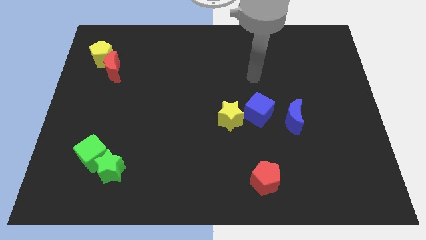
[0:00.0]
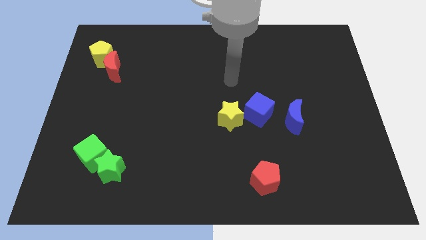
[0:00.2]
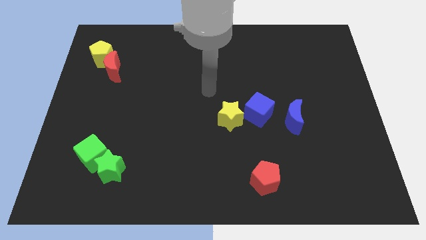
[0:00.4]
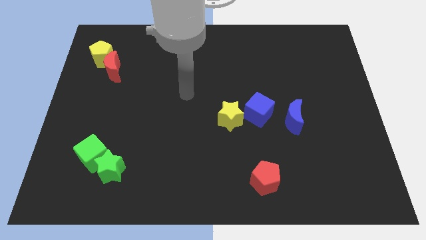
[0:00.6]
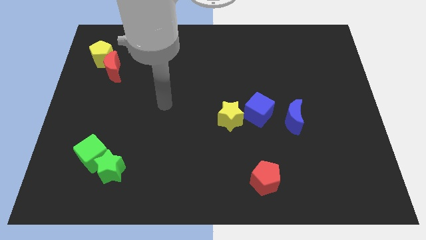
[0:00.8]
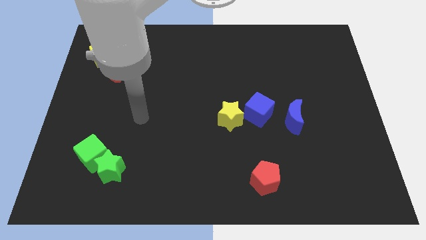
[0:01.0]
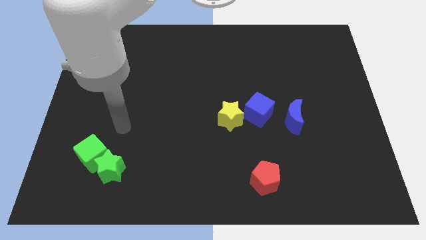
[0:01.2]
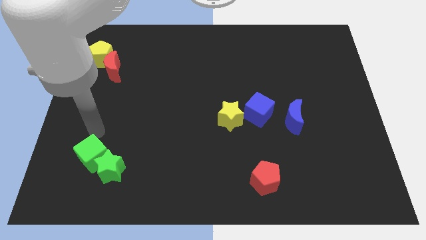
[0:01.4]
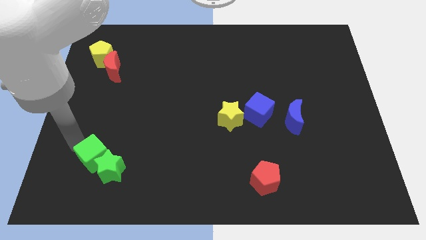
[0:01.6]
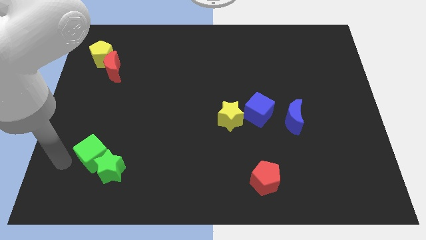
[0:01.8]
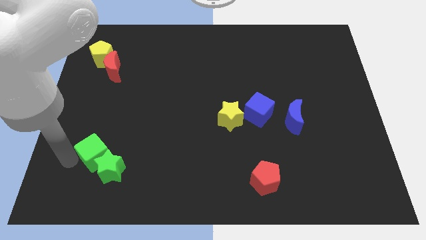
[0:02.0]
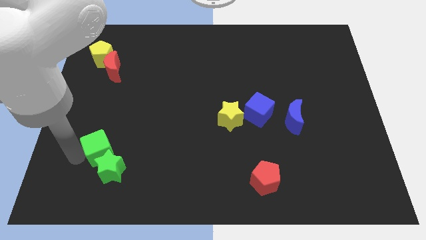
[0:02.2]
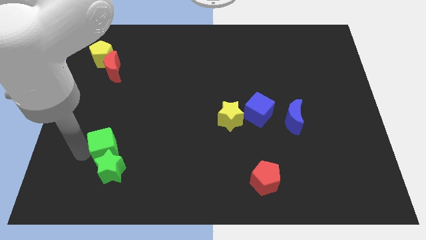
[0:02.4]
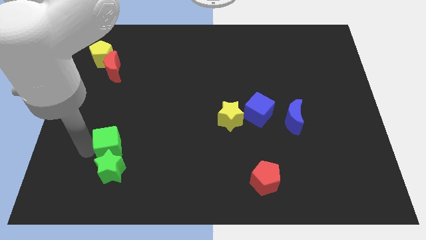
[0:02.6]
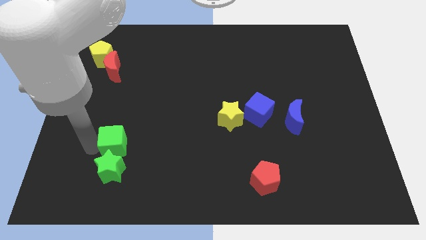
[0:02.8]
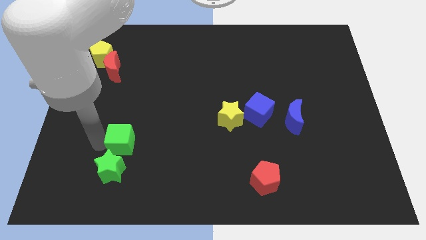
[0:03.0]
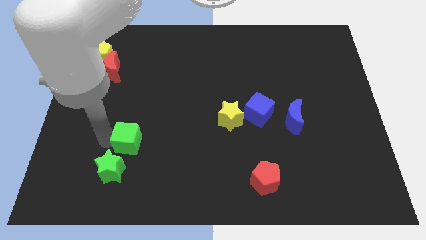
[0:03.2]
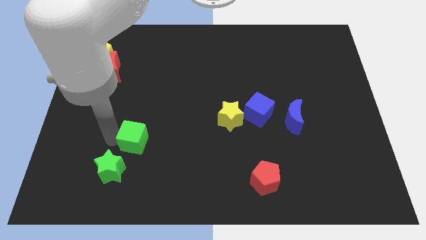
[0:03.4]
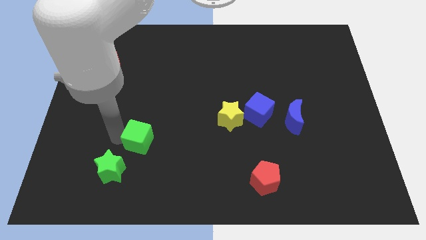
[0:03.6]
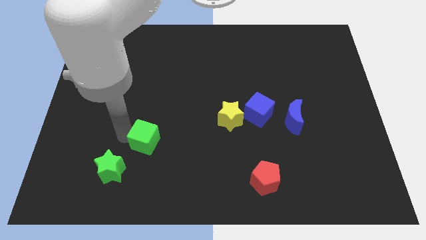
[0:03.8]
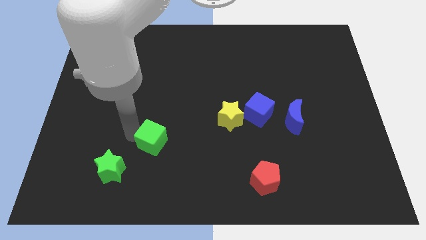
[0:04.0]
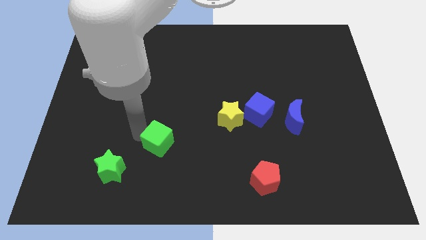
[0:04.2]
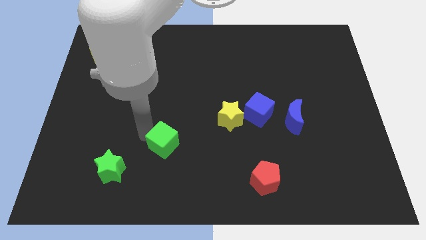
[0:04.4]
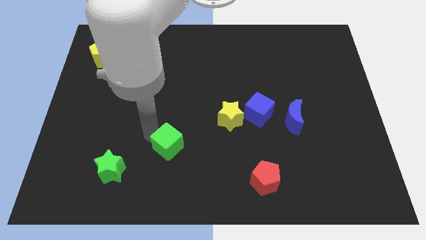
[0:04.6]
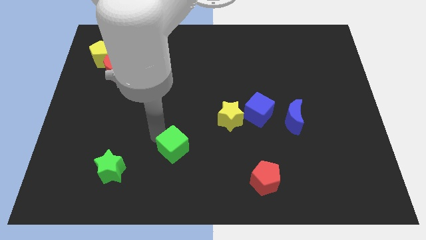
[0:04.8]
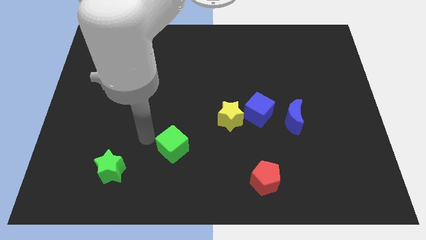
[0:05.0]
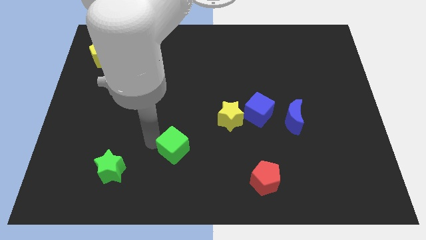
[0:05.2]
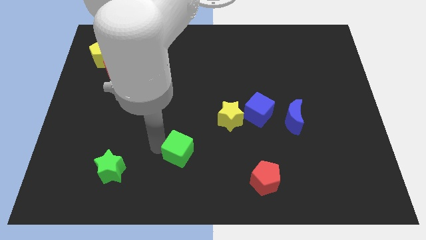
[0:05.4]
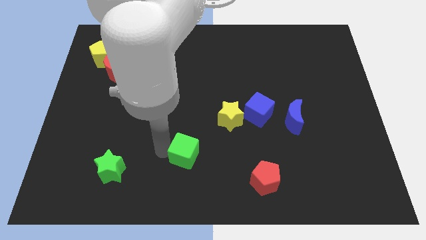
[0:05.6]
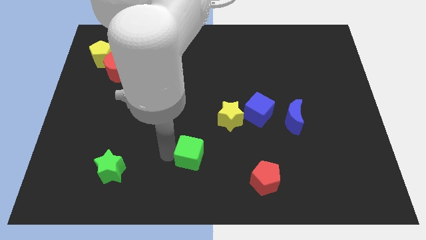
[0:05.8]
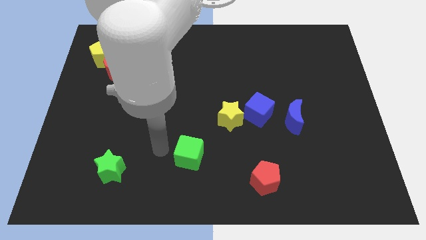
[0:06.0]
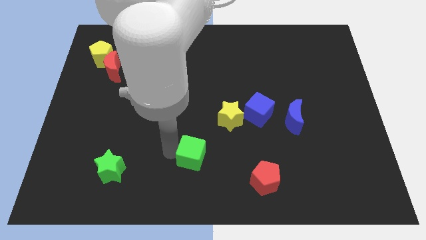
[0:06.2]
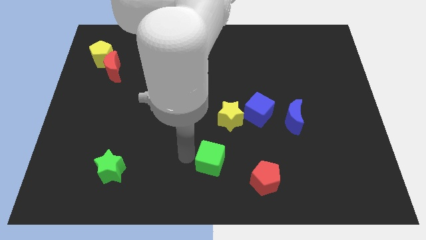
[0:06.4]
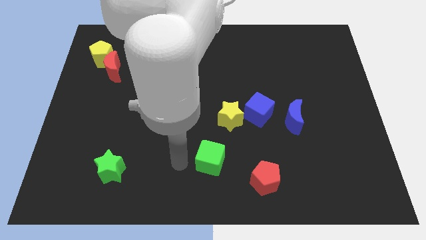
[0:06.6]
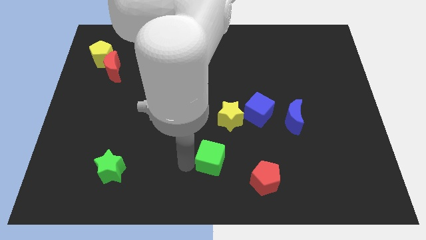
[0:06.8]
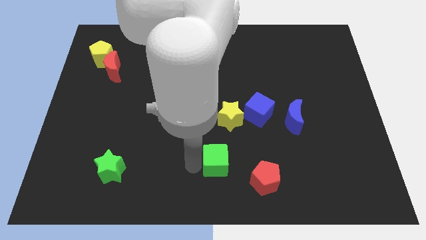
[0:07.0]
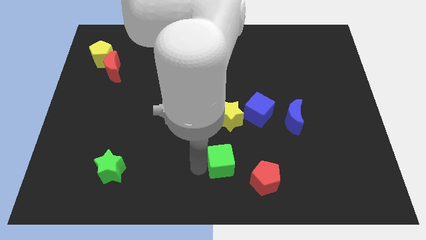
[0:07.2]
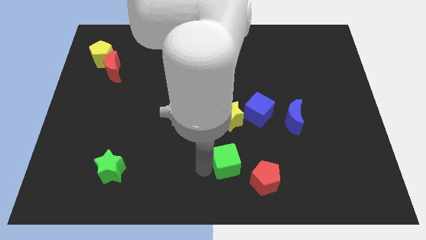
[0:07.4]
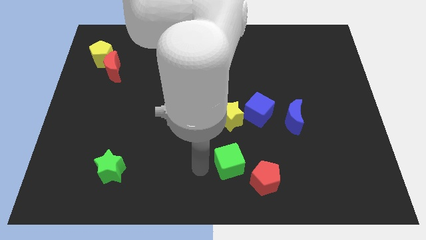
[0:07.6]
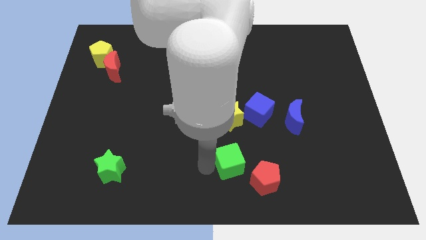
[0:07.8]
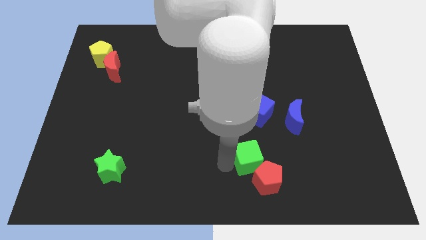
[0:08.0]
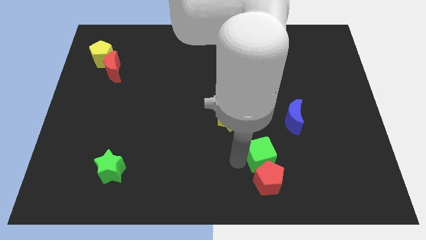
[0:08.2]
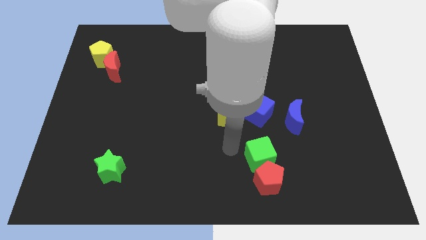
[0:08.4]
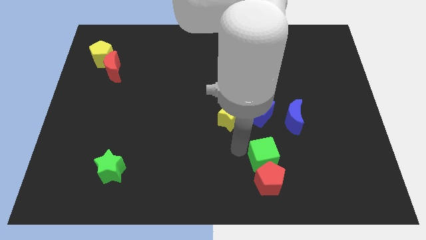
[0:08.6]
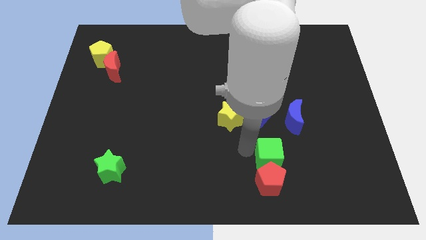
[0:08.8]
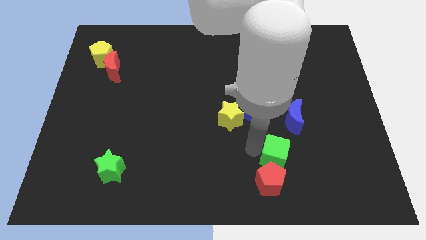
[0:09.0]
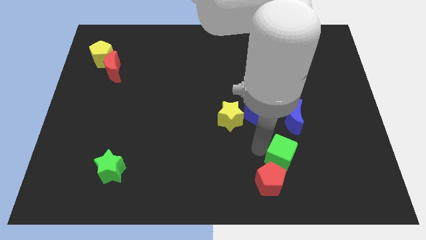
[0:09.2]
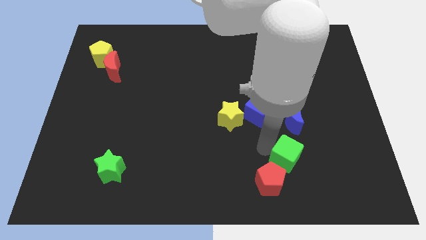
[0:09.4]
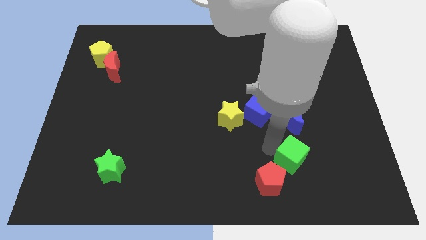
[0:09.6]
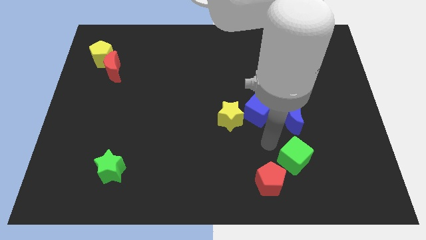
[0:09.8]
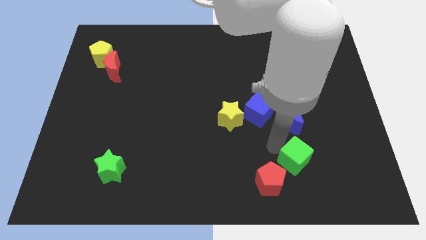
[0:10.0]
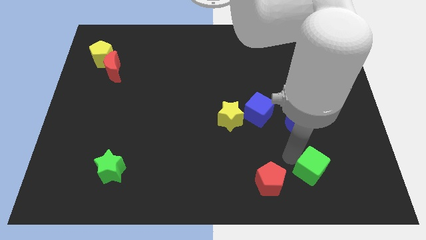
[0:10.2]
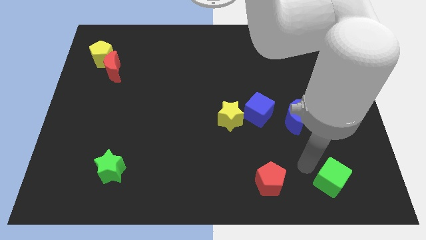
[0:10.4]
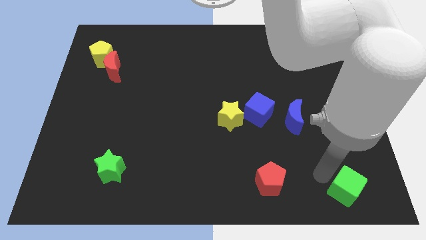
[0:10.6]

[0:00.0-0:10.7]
put the green cube to the bottom right of the board

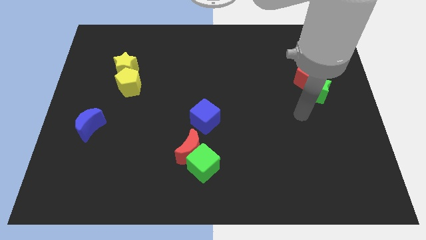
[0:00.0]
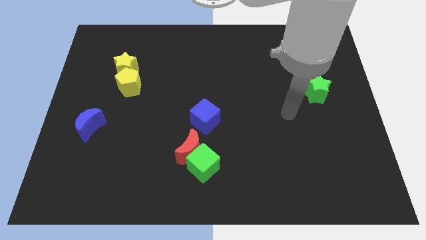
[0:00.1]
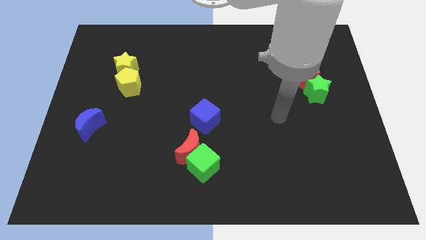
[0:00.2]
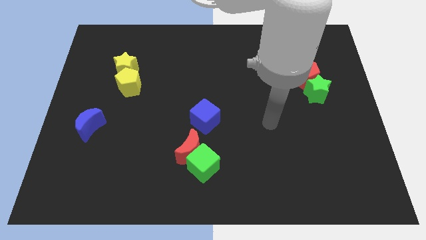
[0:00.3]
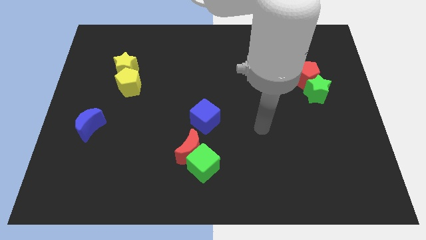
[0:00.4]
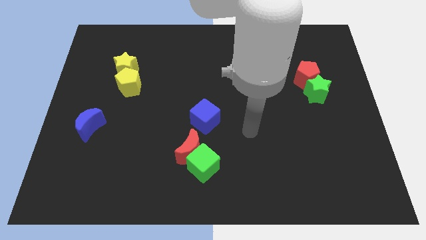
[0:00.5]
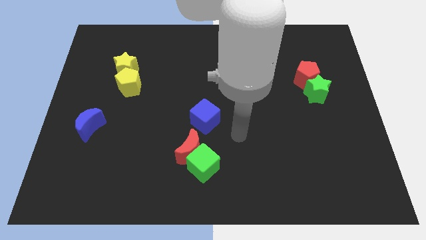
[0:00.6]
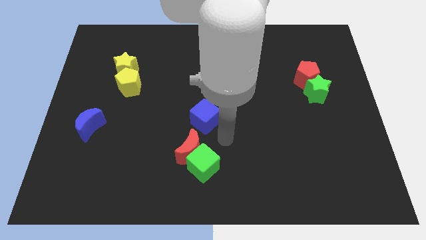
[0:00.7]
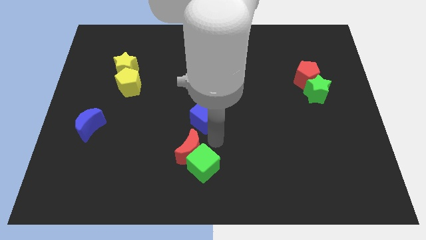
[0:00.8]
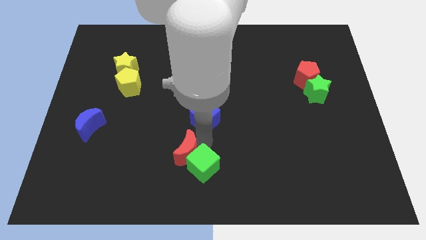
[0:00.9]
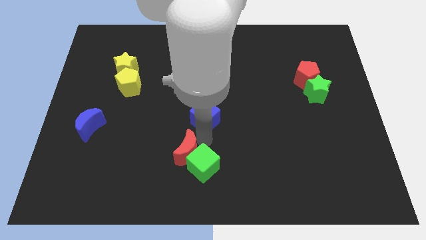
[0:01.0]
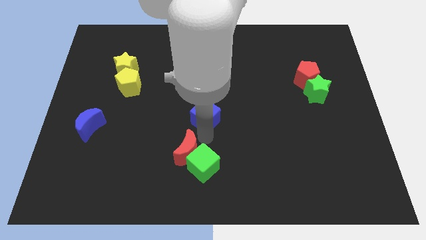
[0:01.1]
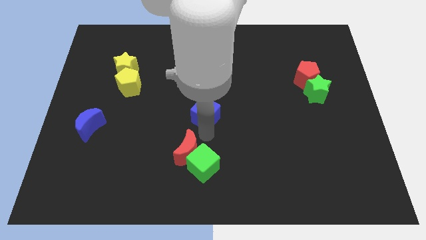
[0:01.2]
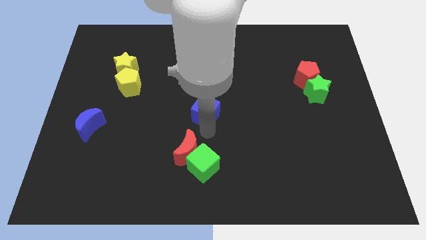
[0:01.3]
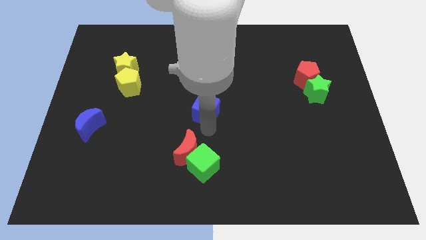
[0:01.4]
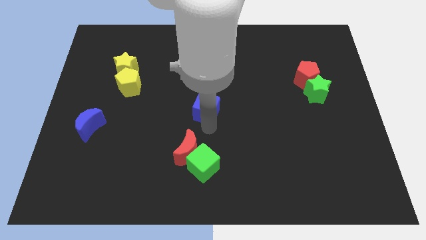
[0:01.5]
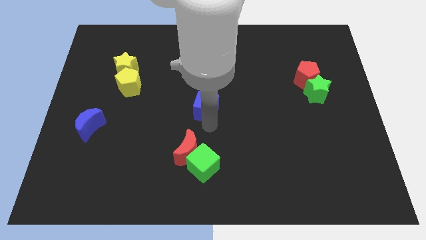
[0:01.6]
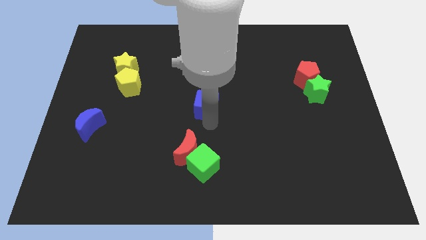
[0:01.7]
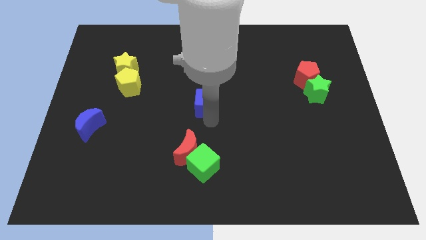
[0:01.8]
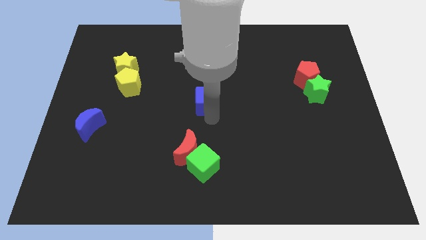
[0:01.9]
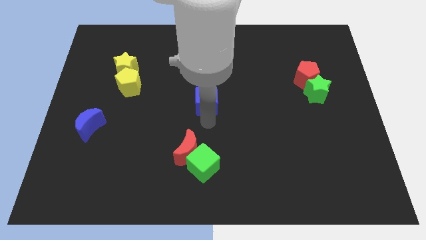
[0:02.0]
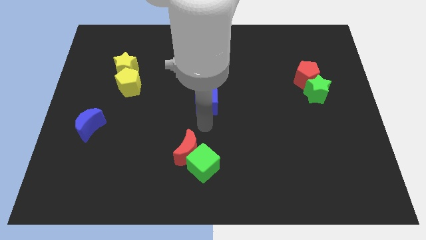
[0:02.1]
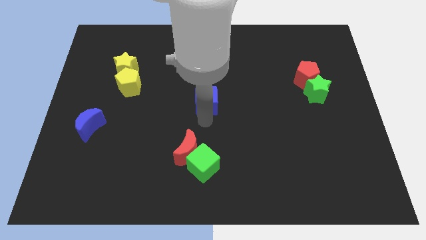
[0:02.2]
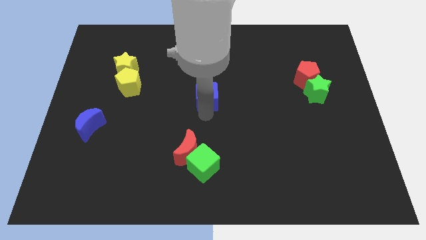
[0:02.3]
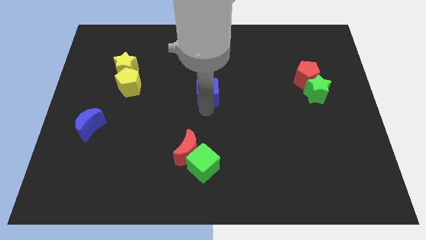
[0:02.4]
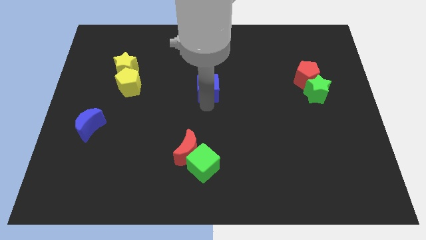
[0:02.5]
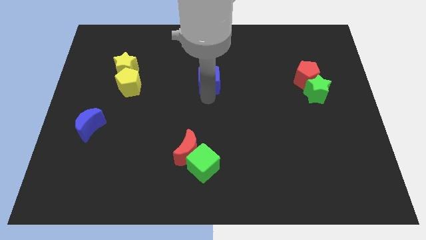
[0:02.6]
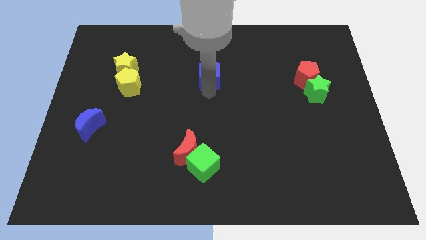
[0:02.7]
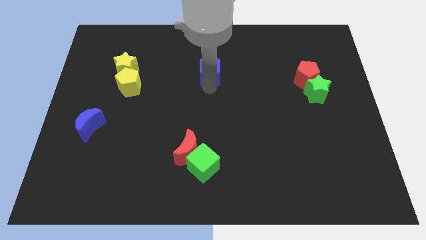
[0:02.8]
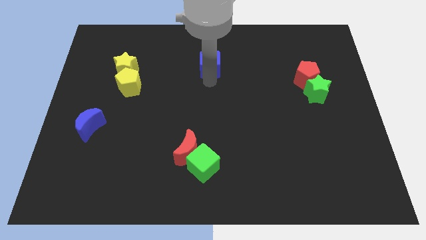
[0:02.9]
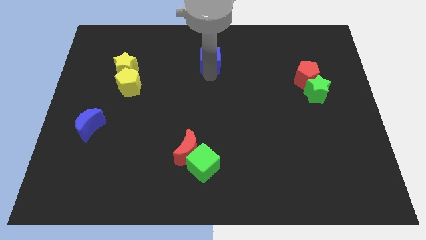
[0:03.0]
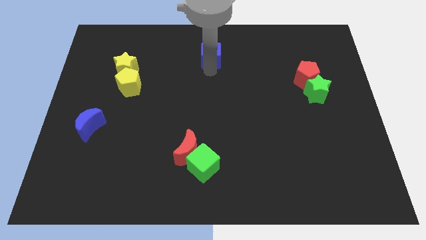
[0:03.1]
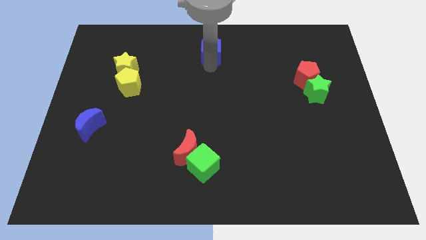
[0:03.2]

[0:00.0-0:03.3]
push the blue cube to the towards your base
